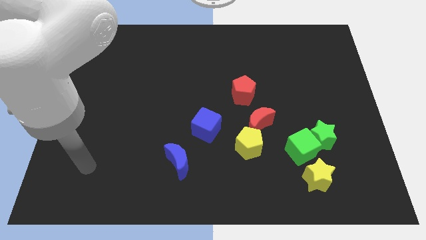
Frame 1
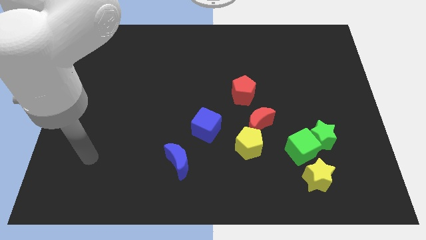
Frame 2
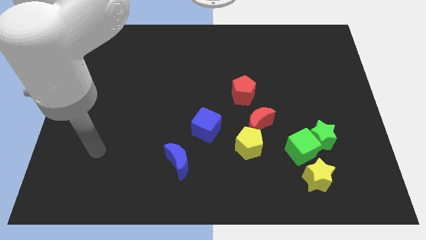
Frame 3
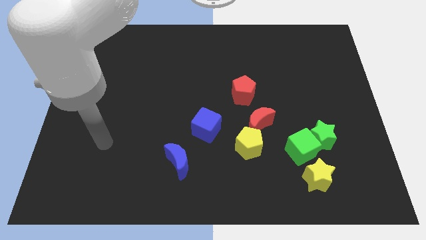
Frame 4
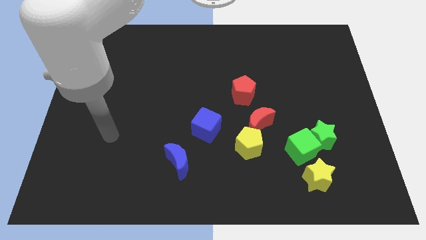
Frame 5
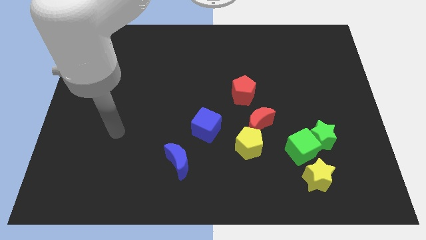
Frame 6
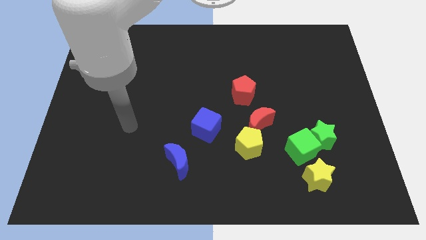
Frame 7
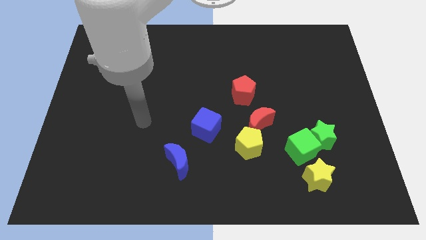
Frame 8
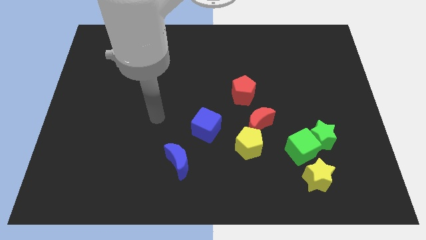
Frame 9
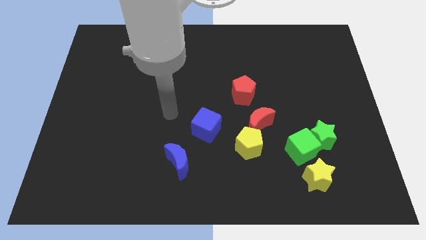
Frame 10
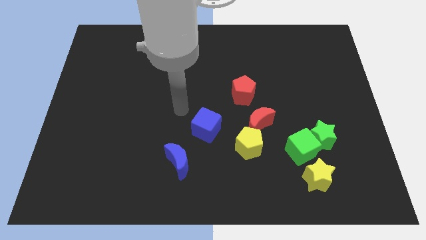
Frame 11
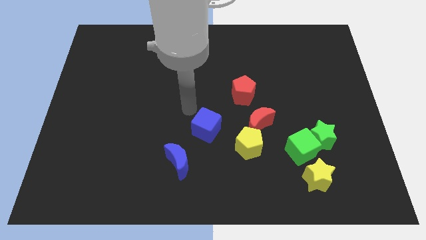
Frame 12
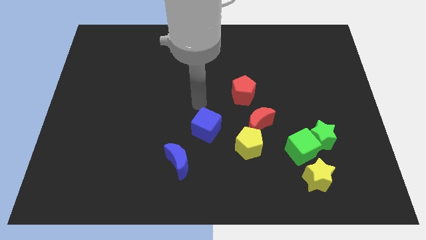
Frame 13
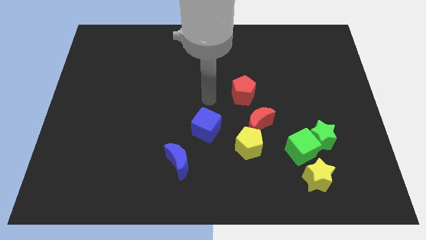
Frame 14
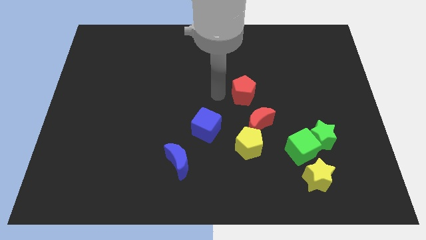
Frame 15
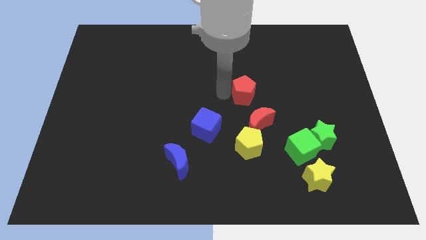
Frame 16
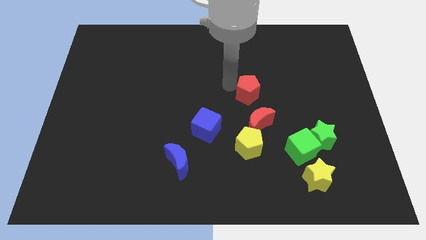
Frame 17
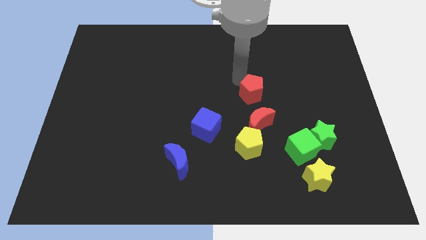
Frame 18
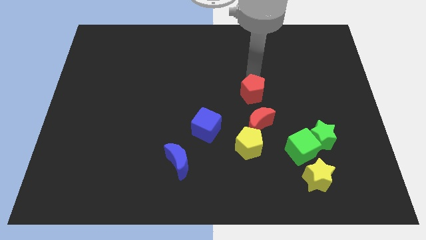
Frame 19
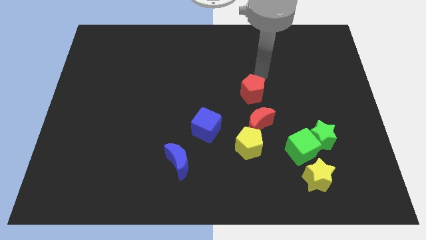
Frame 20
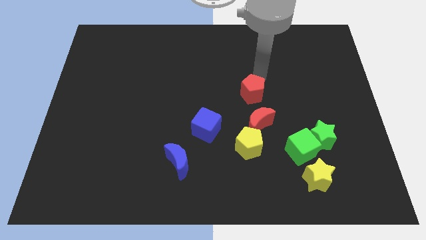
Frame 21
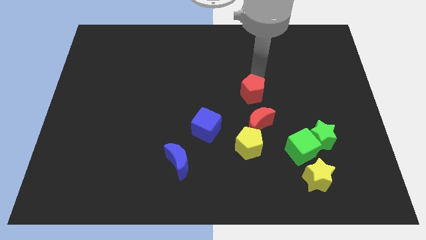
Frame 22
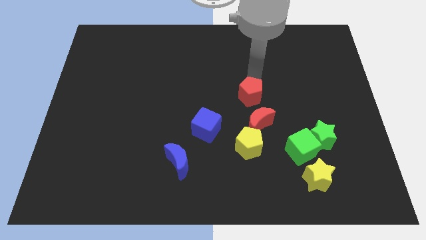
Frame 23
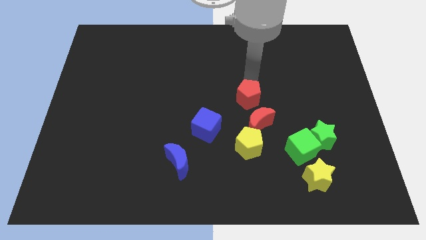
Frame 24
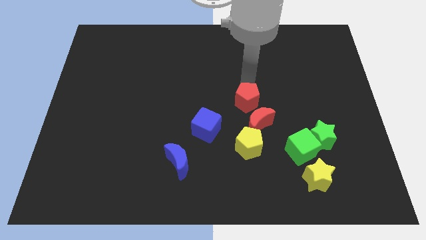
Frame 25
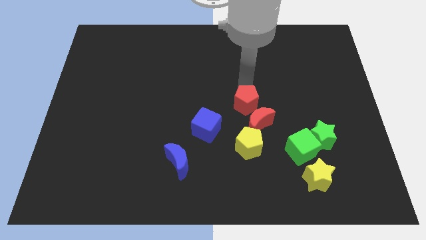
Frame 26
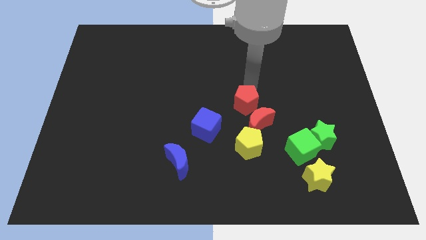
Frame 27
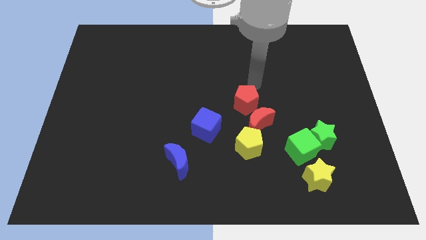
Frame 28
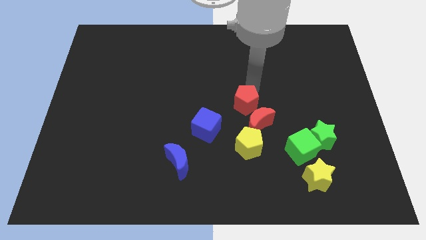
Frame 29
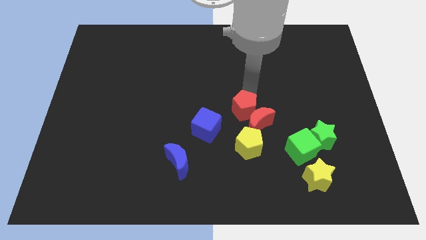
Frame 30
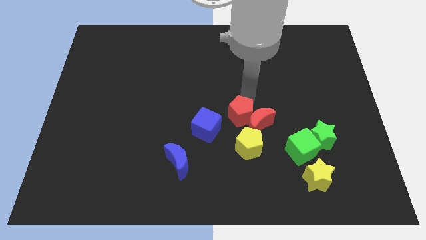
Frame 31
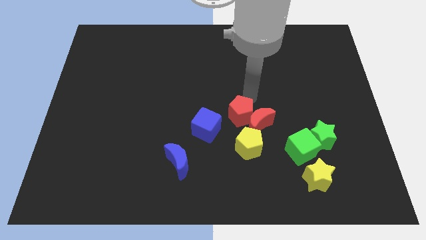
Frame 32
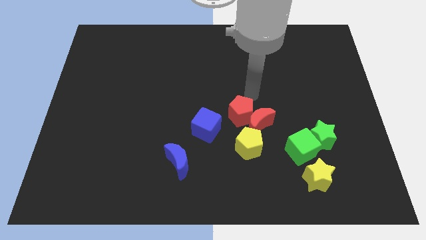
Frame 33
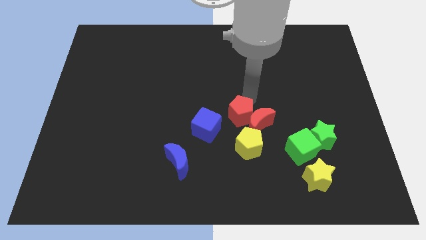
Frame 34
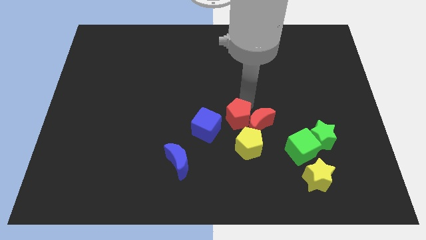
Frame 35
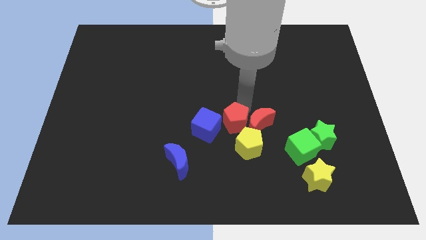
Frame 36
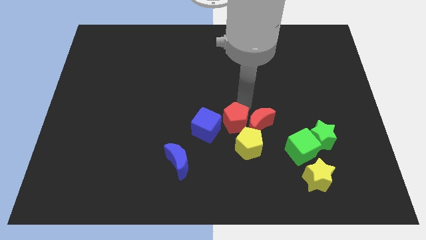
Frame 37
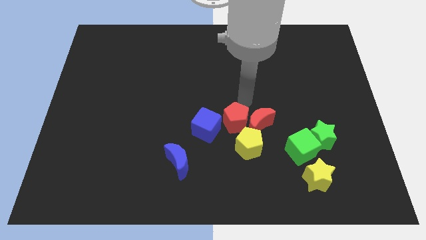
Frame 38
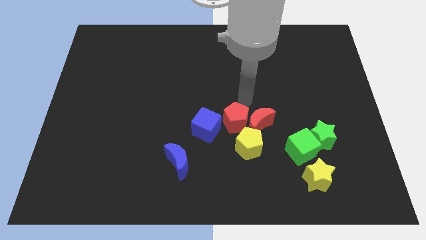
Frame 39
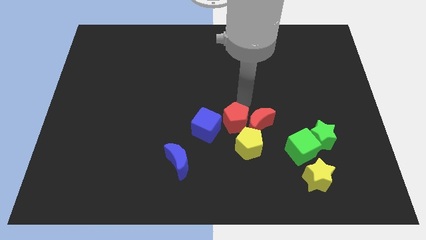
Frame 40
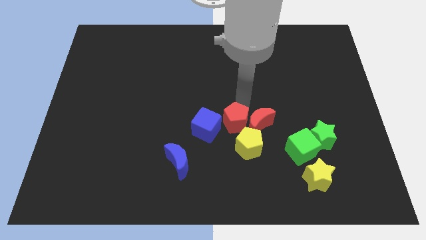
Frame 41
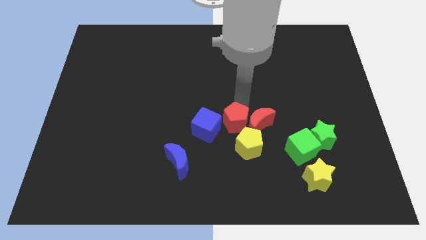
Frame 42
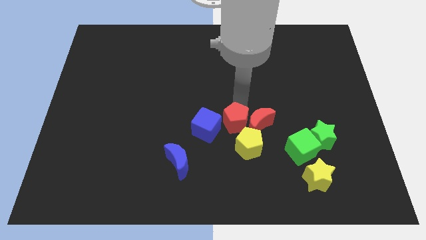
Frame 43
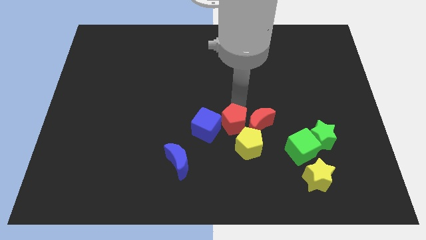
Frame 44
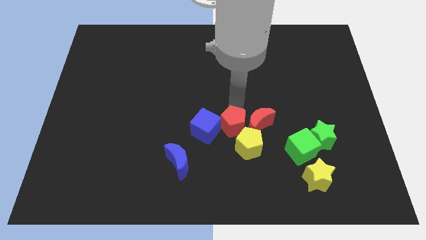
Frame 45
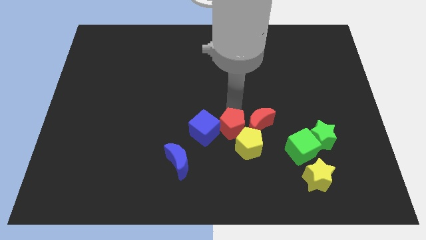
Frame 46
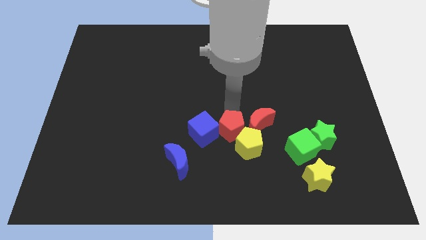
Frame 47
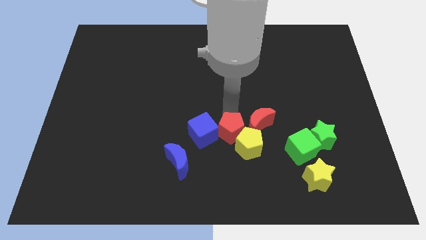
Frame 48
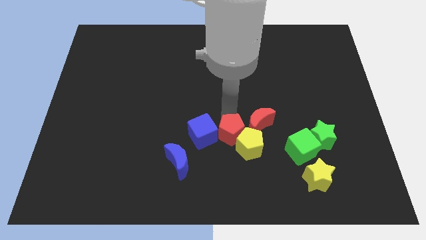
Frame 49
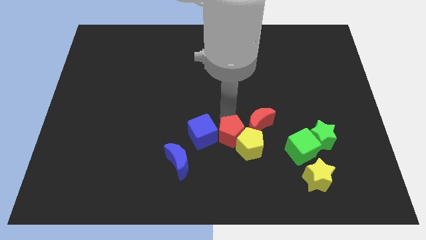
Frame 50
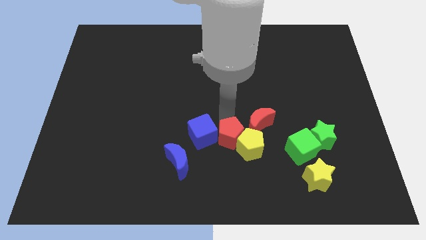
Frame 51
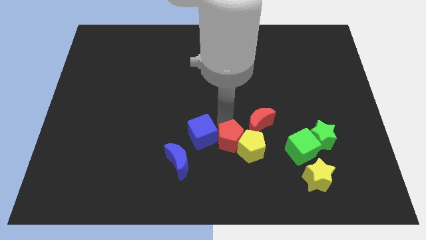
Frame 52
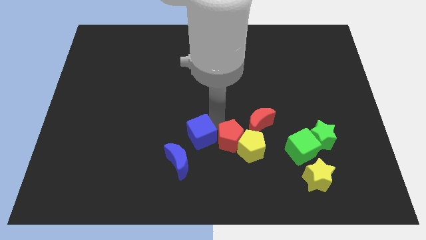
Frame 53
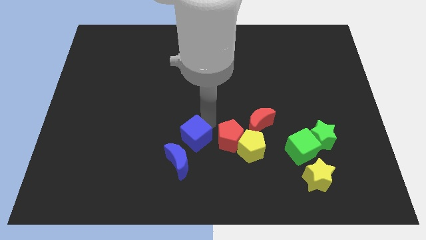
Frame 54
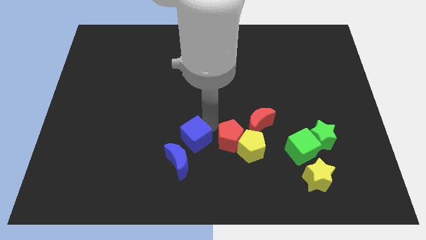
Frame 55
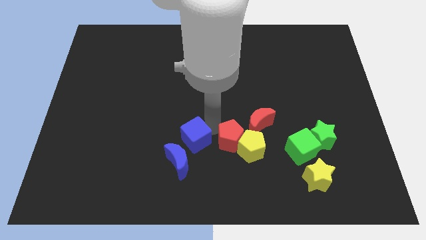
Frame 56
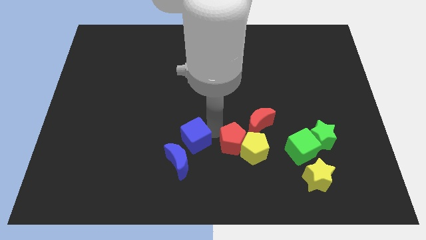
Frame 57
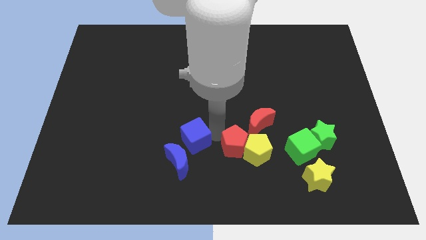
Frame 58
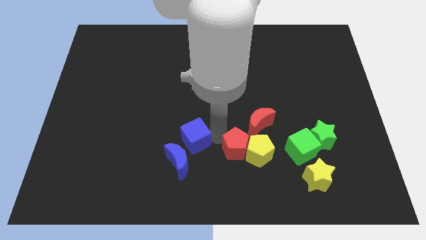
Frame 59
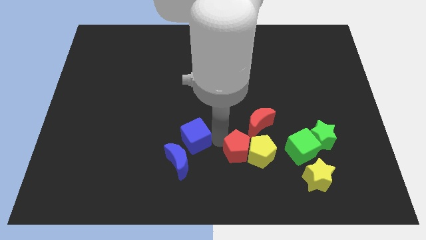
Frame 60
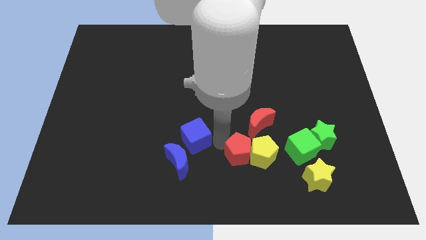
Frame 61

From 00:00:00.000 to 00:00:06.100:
push the red pentagon to the bottom side of the red moon

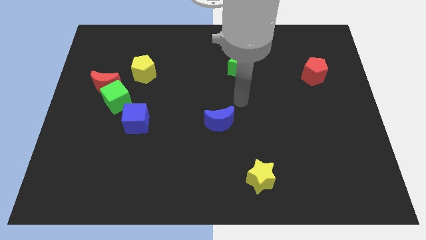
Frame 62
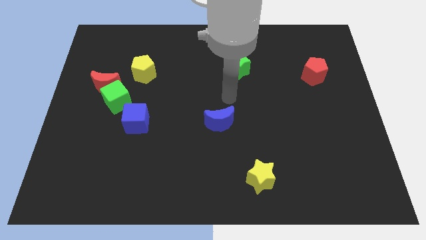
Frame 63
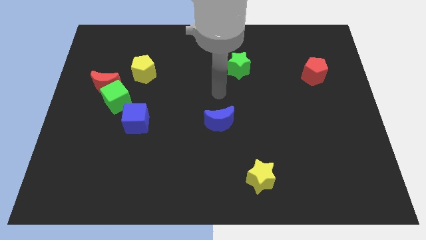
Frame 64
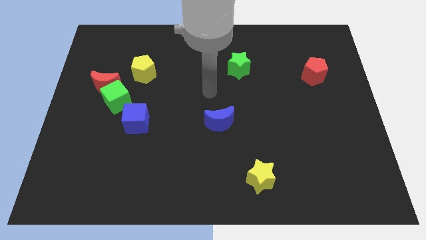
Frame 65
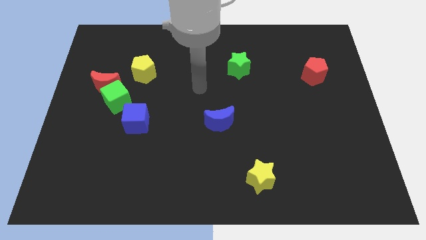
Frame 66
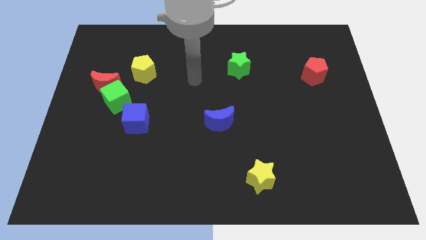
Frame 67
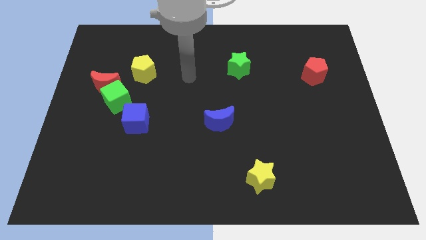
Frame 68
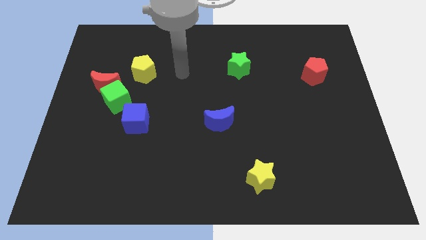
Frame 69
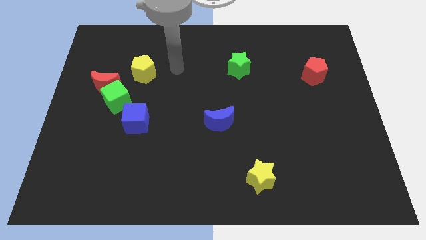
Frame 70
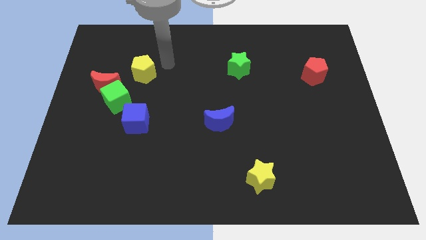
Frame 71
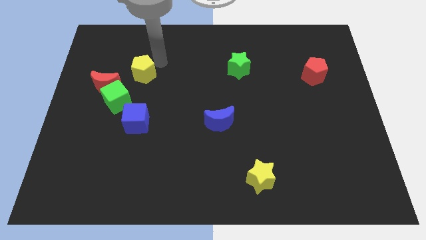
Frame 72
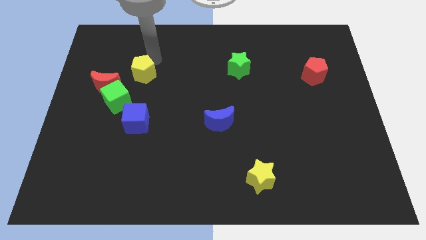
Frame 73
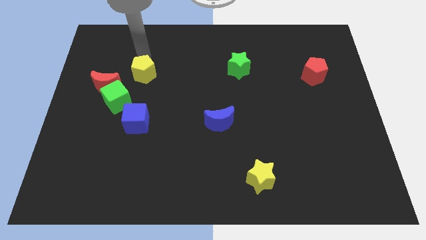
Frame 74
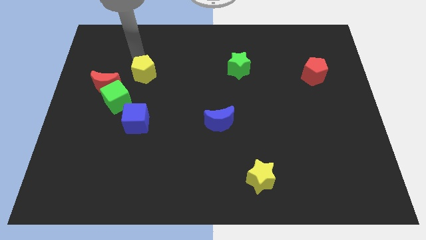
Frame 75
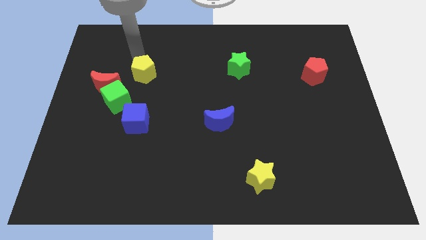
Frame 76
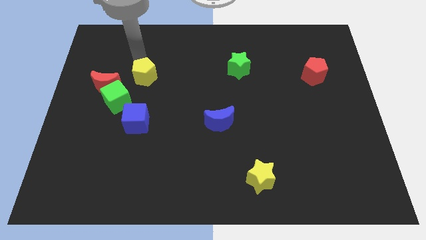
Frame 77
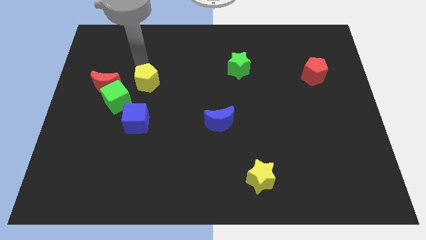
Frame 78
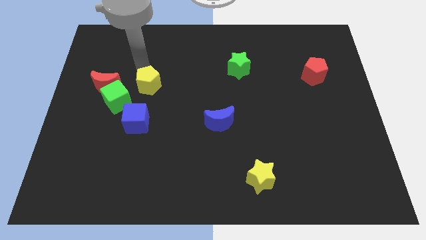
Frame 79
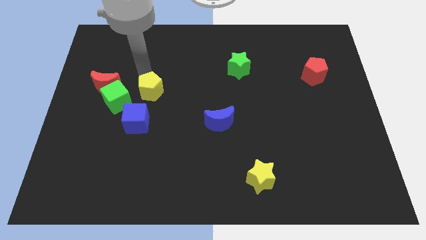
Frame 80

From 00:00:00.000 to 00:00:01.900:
move the yellow pentagon right of the green cube
